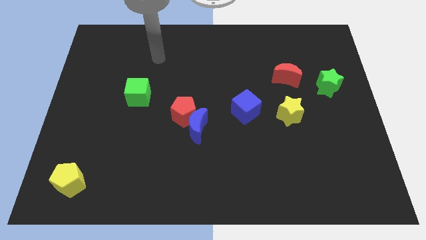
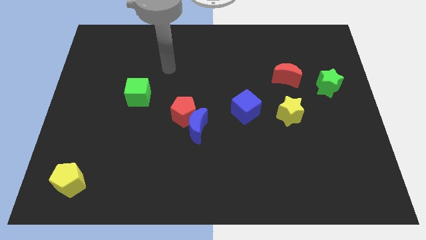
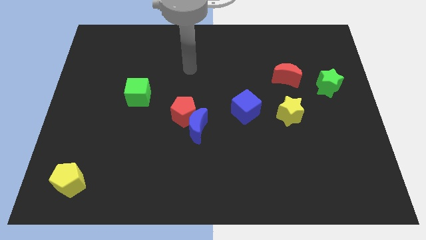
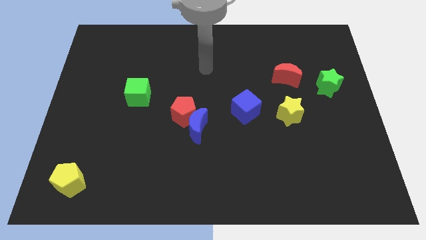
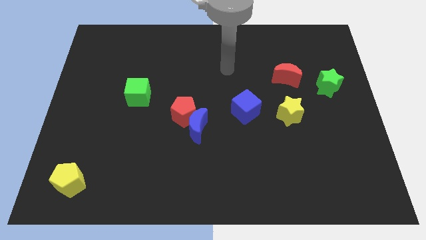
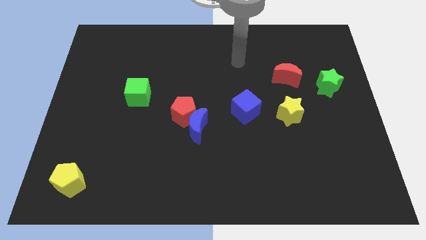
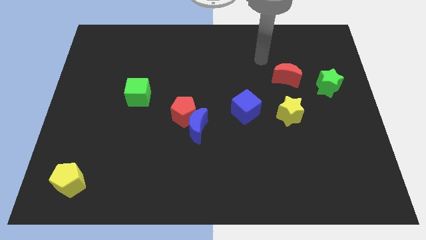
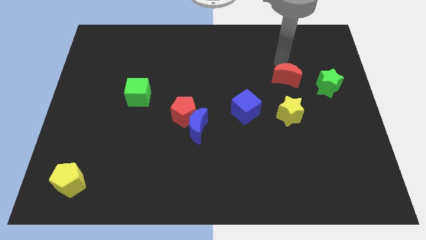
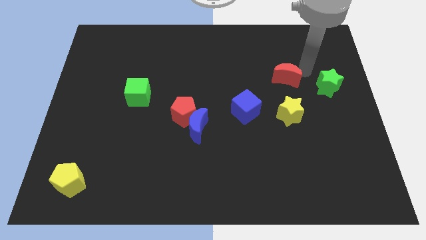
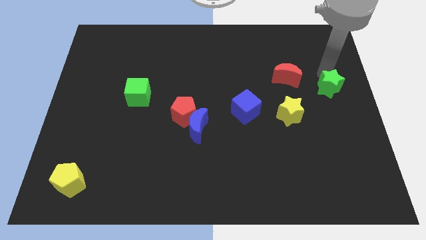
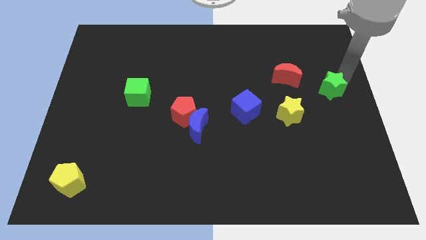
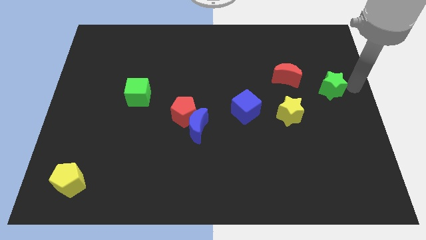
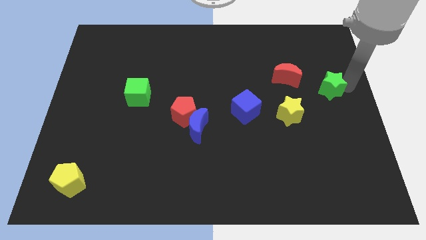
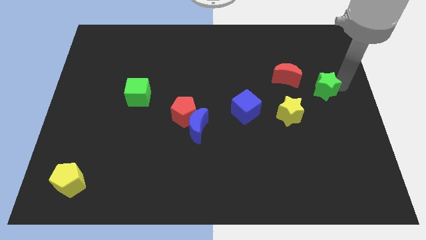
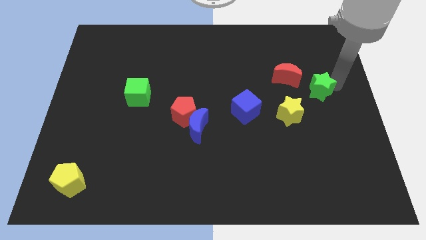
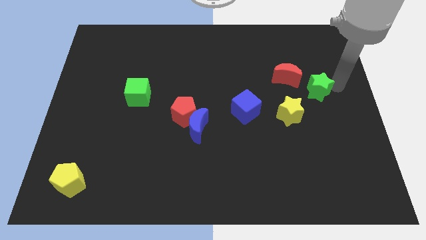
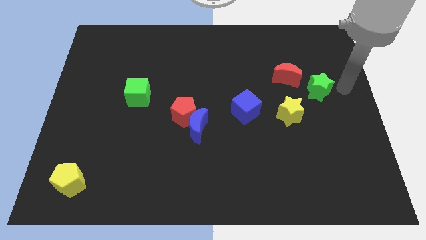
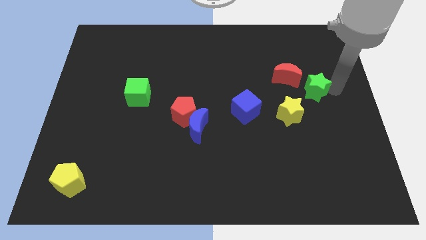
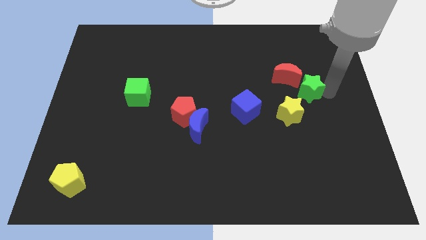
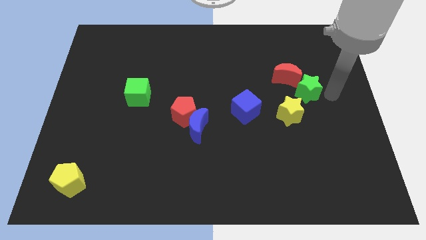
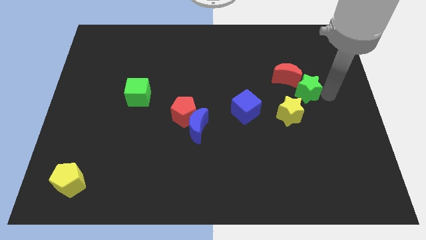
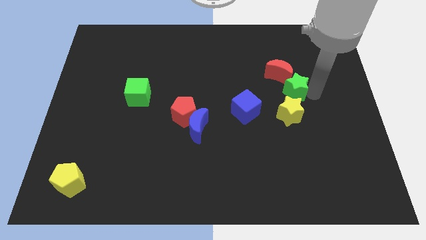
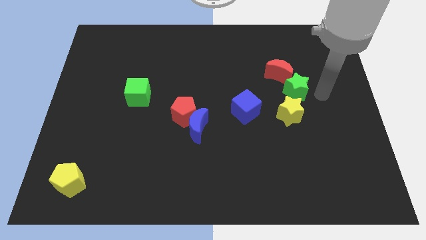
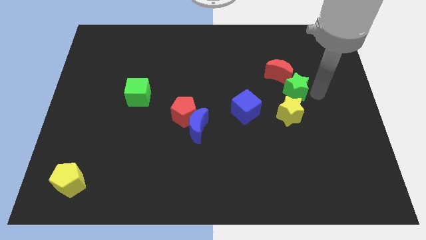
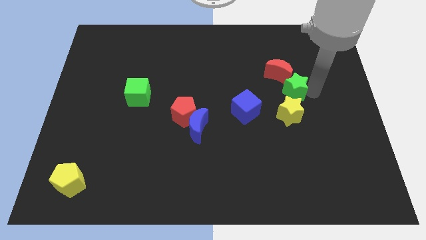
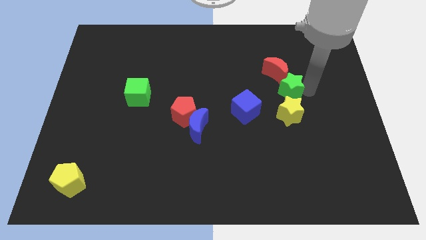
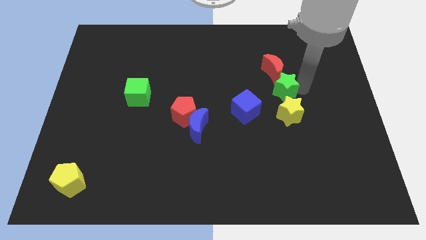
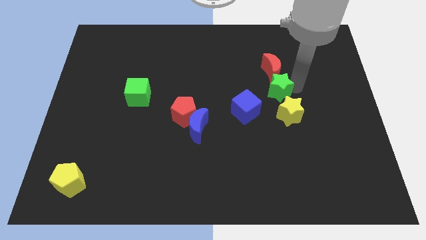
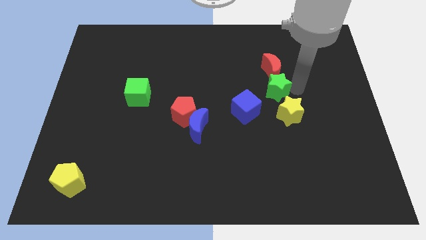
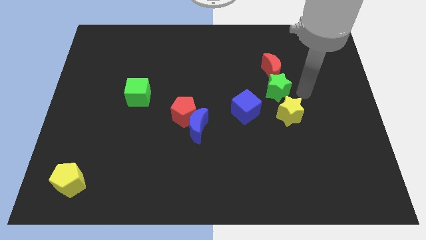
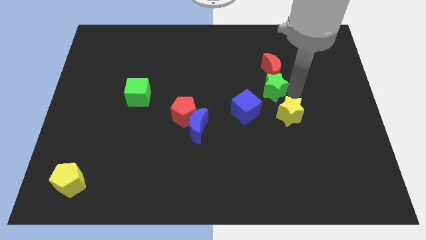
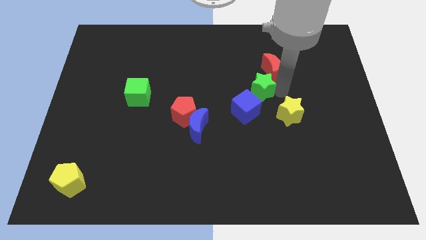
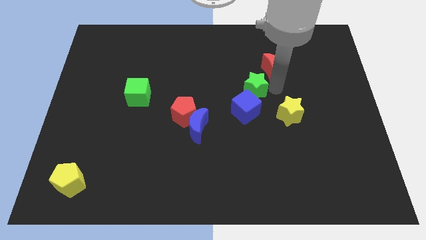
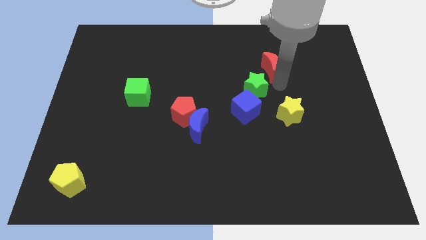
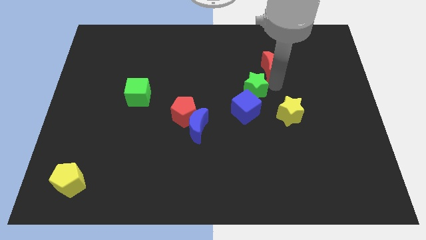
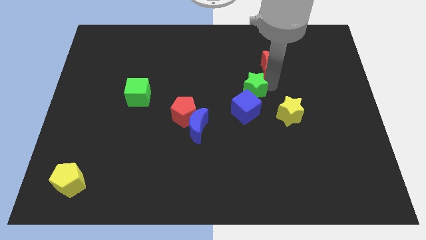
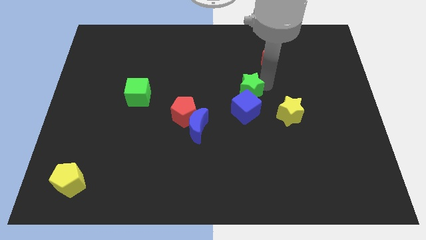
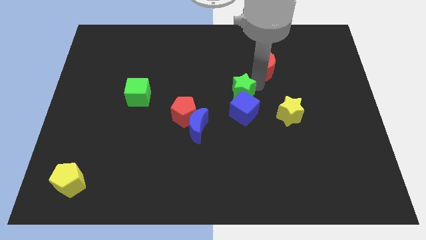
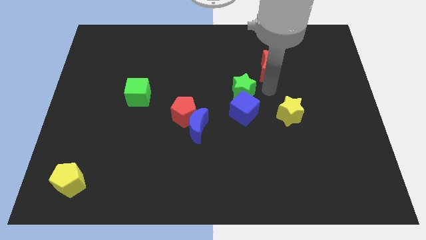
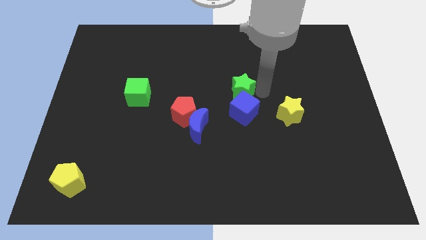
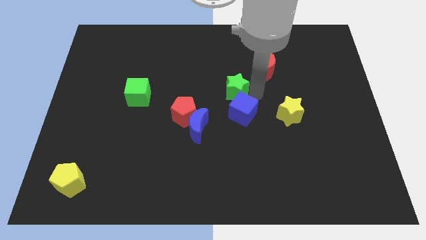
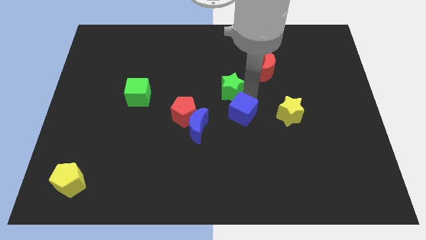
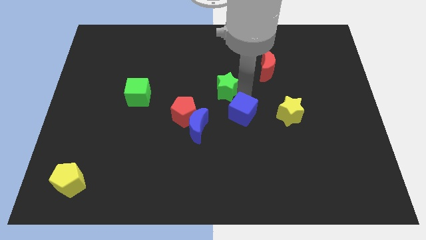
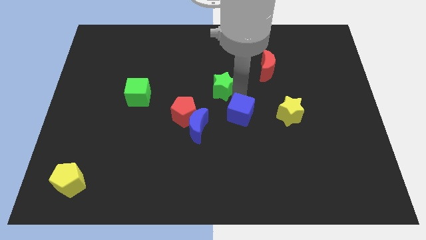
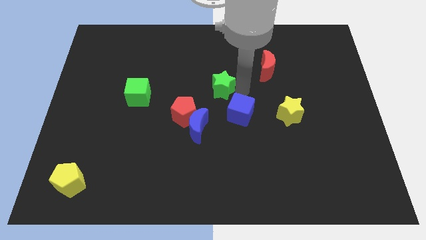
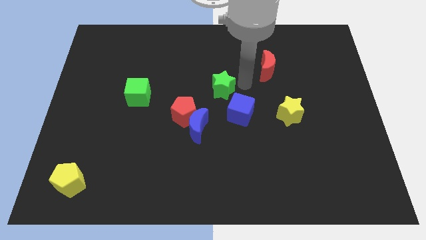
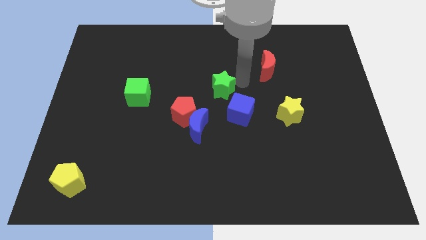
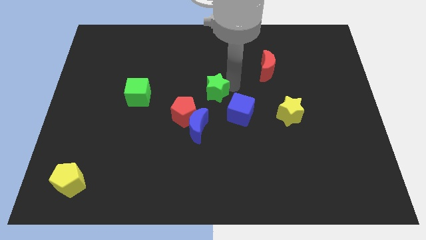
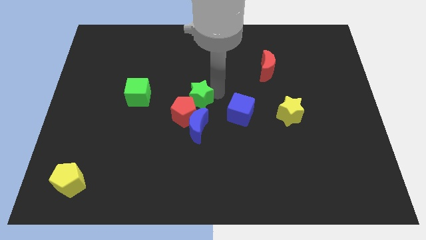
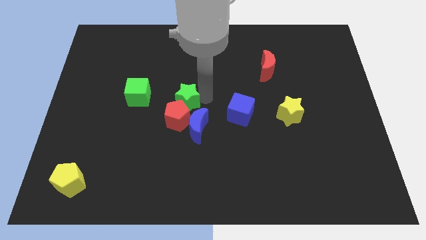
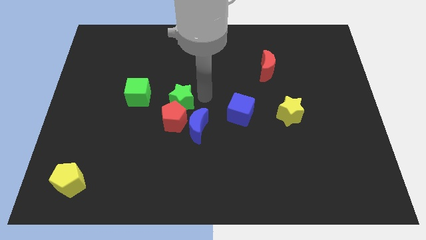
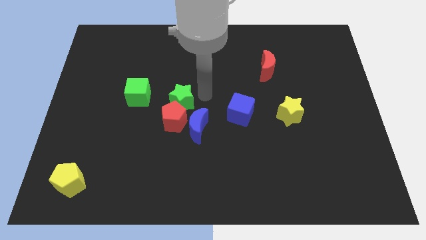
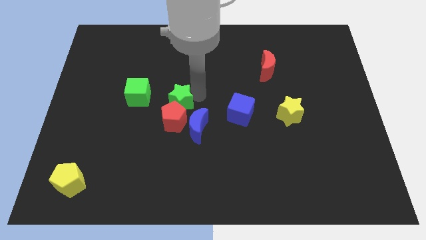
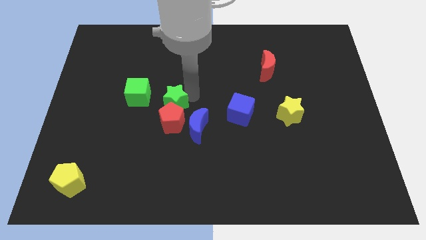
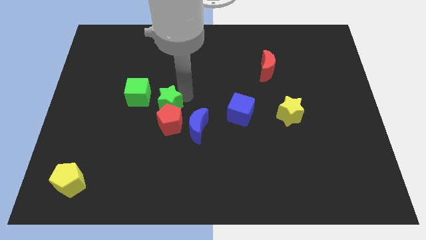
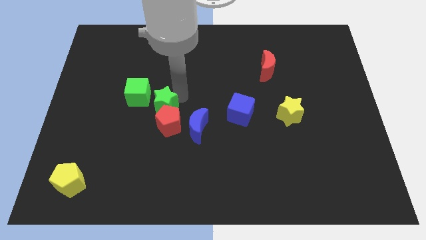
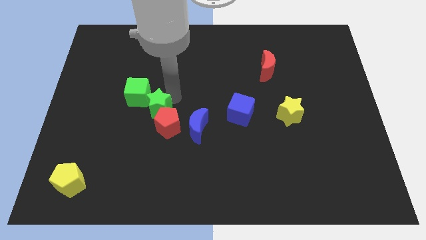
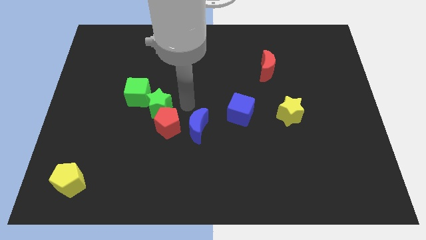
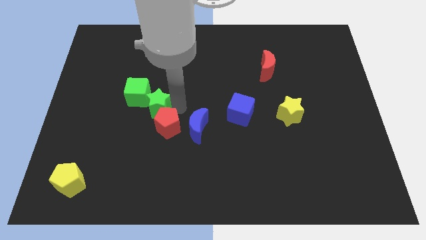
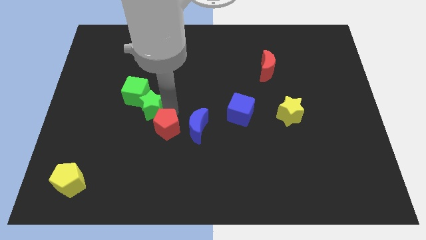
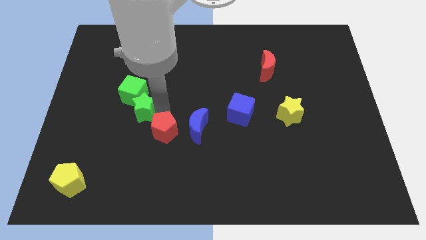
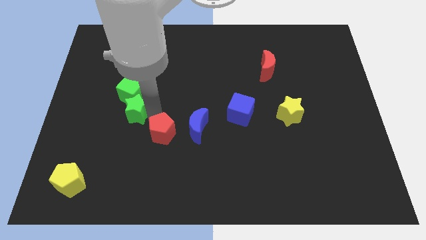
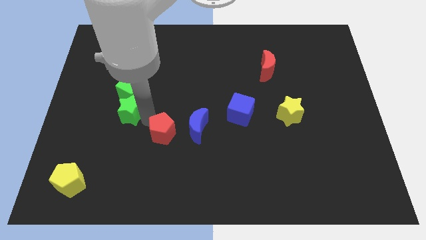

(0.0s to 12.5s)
push the green star to the bottom left side of the green cube
